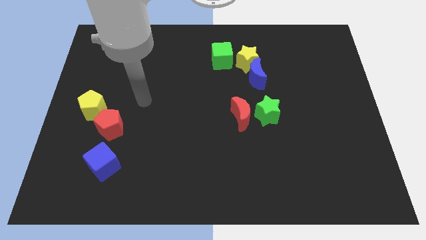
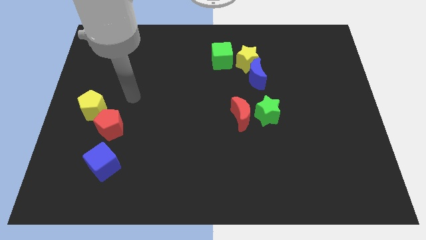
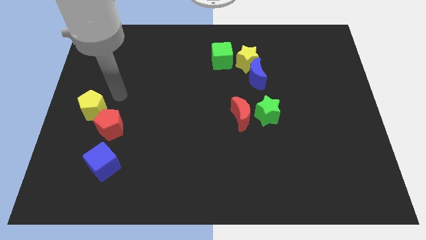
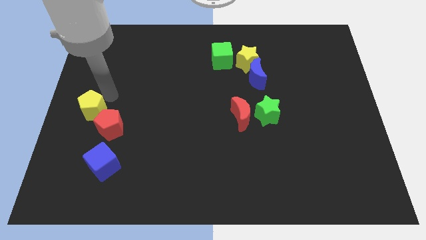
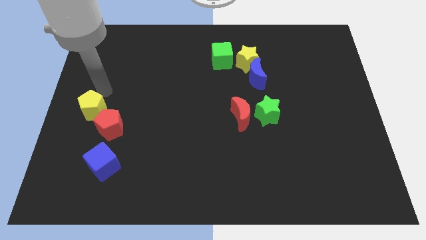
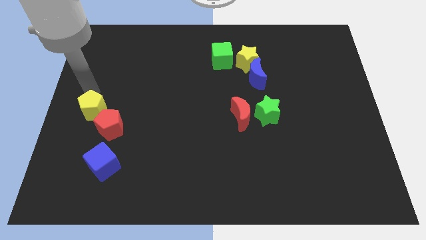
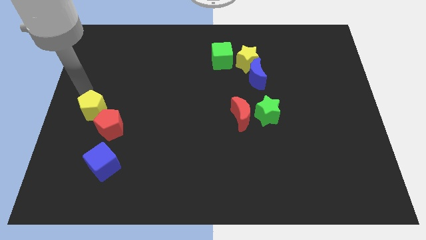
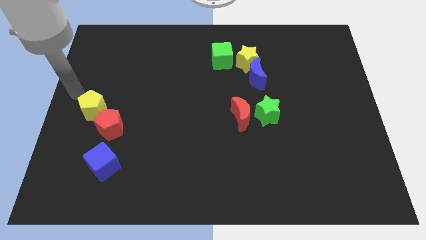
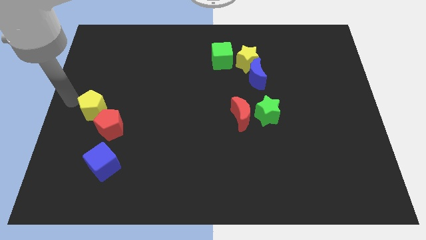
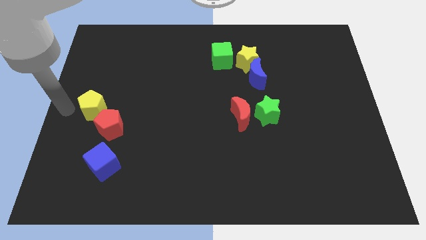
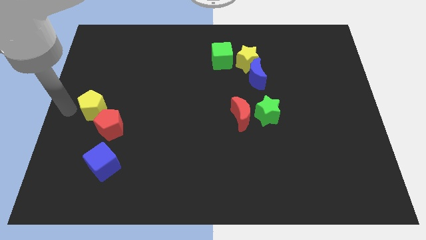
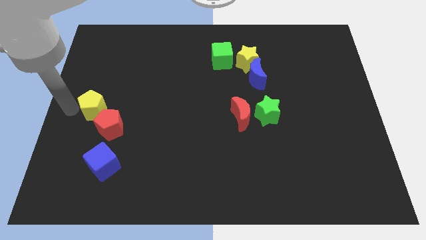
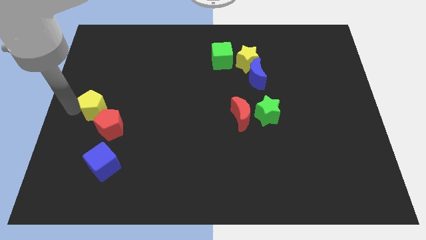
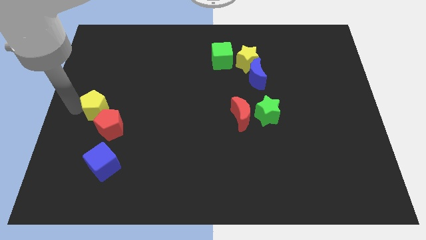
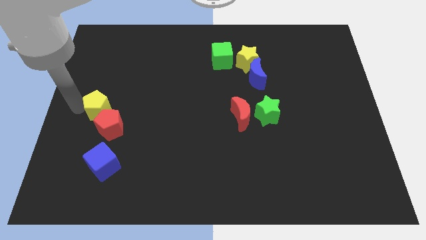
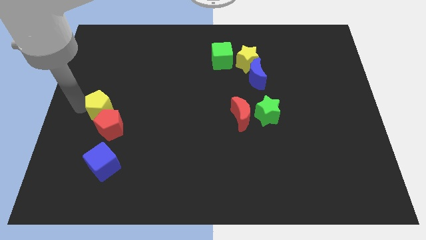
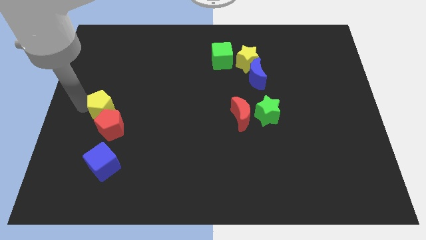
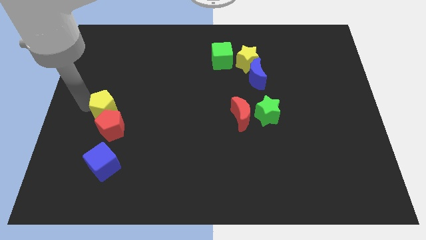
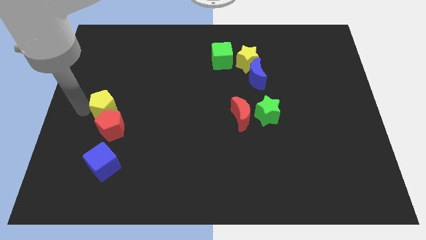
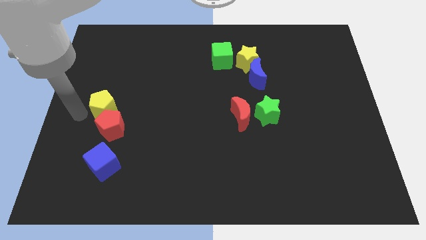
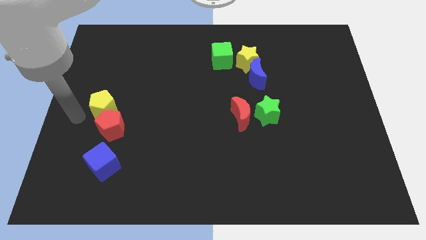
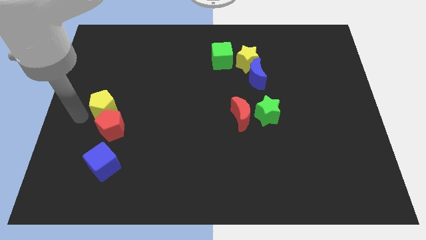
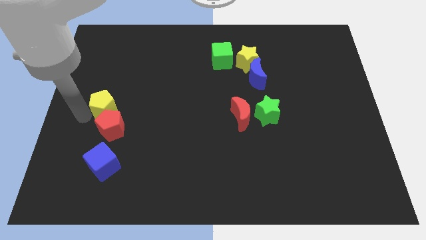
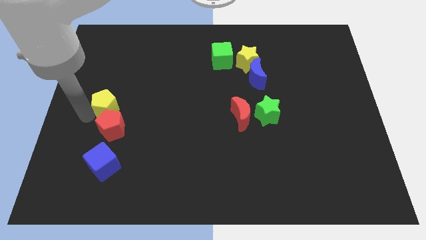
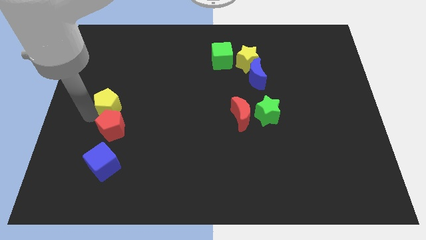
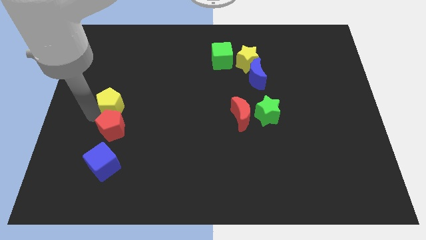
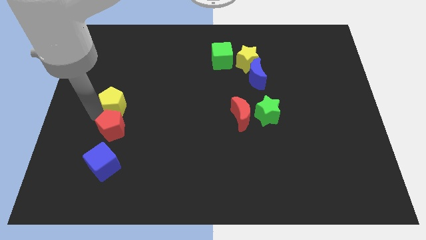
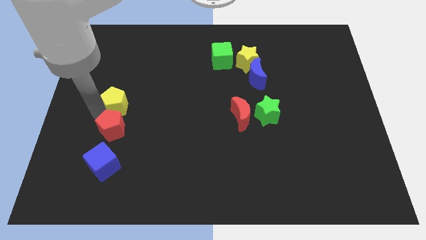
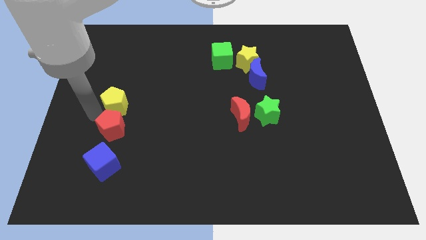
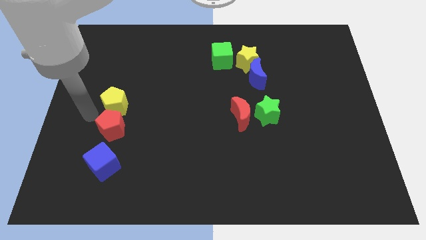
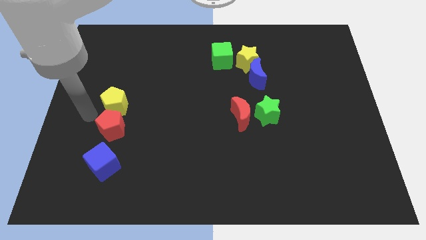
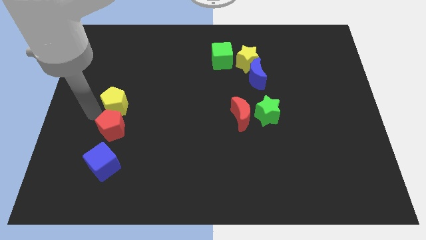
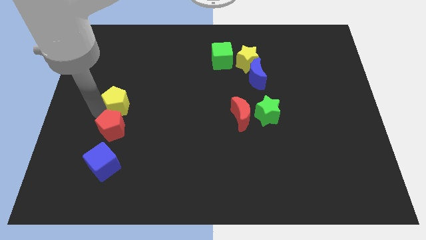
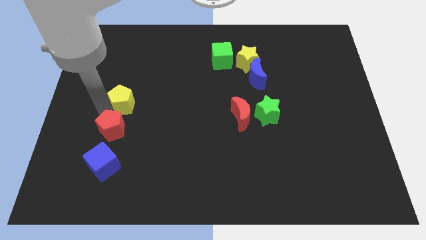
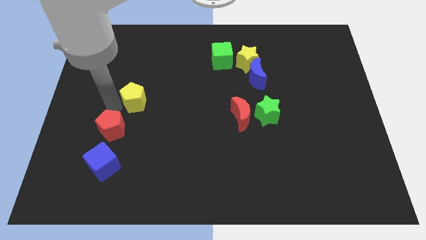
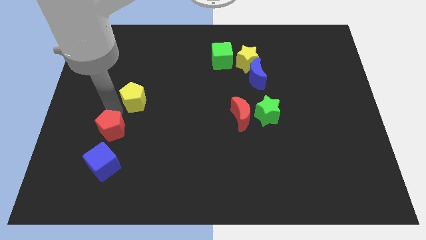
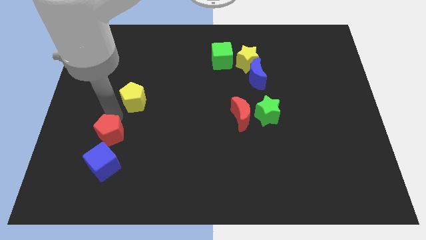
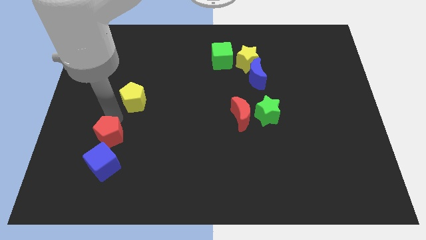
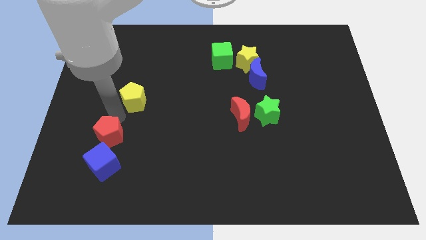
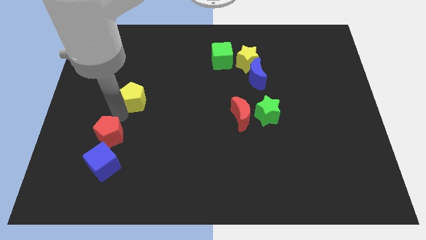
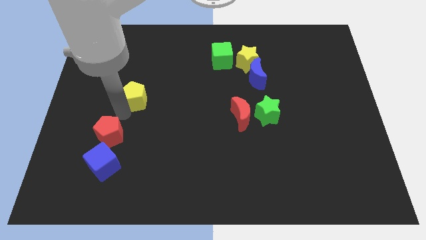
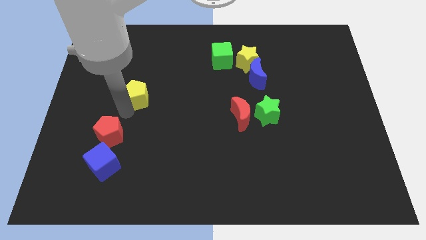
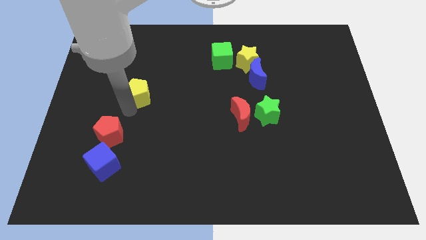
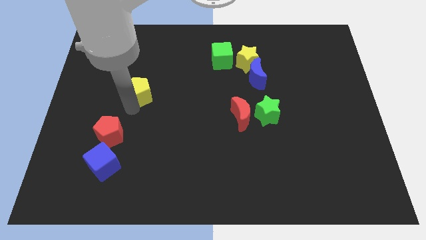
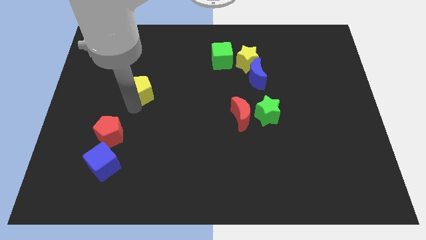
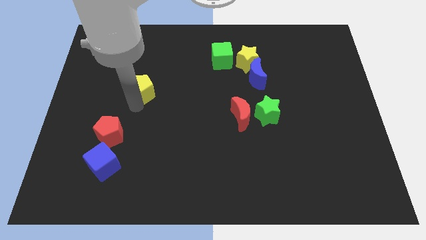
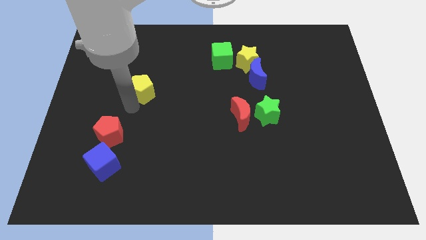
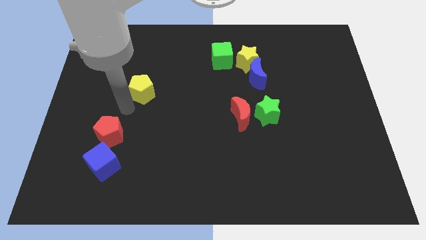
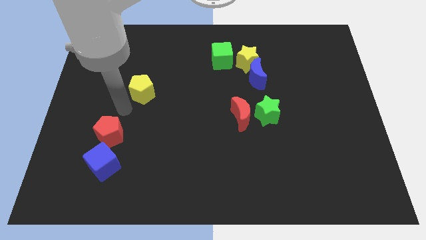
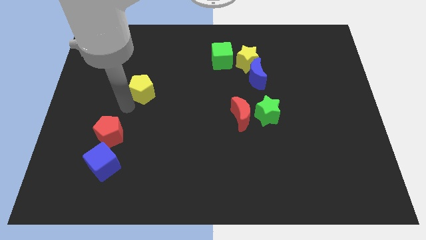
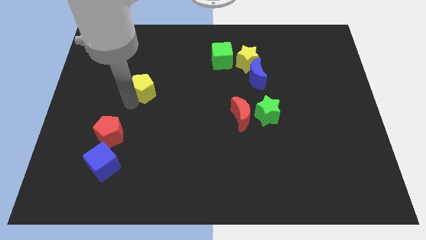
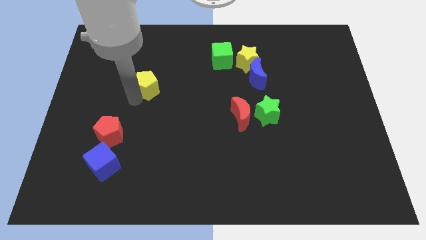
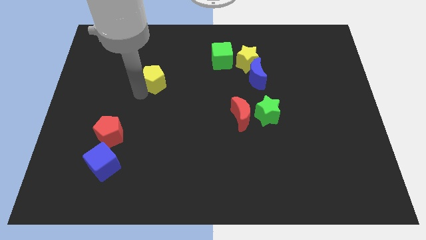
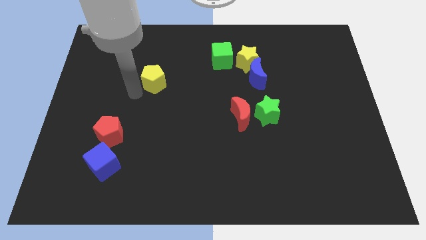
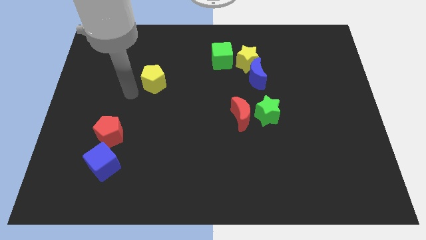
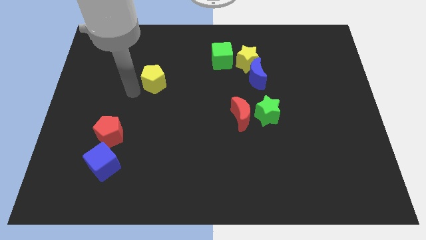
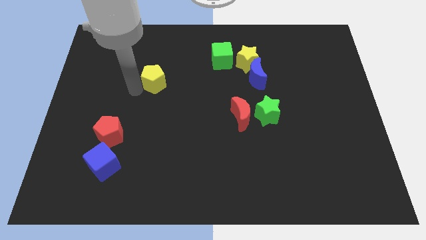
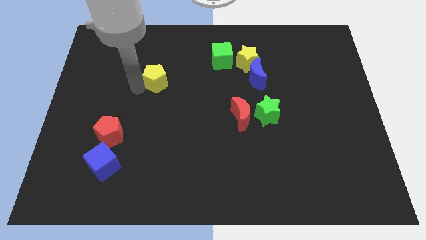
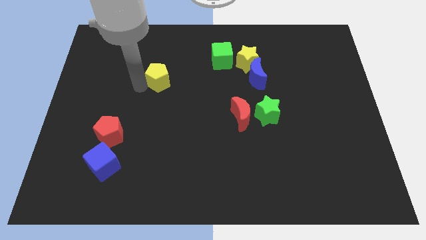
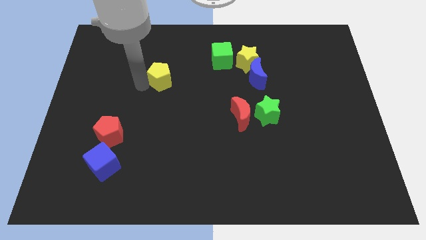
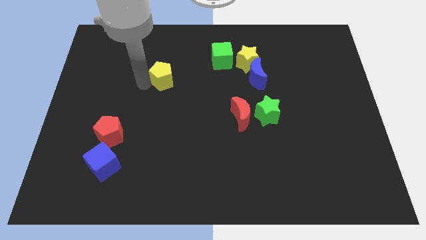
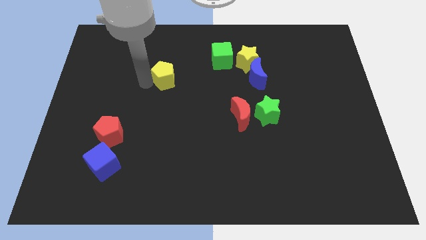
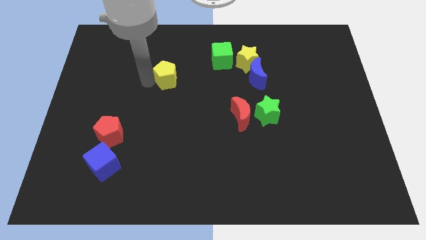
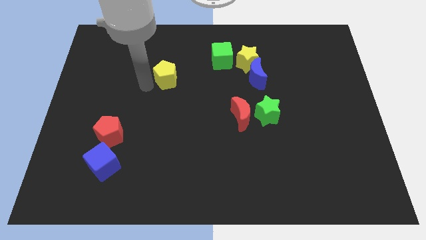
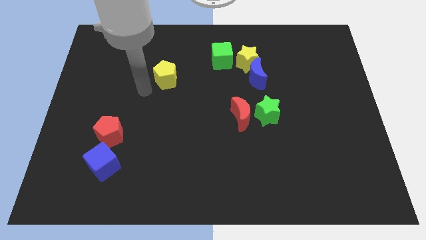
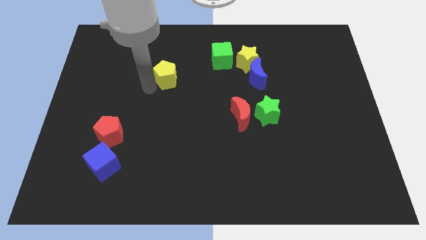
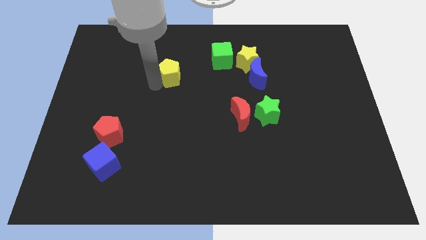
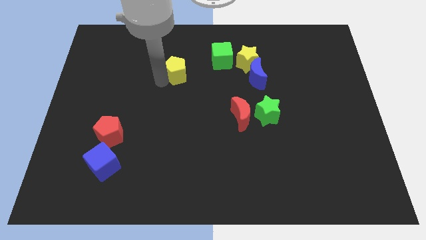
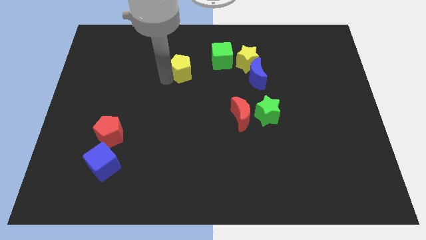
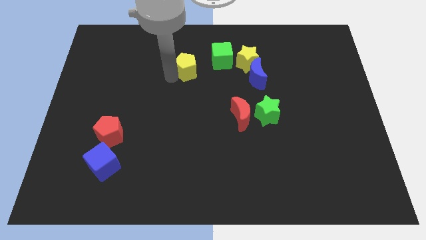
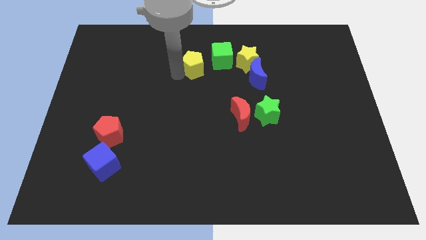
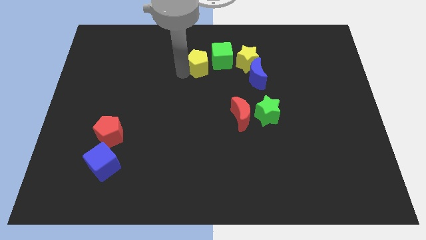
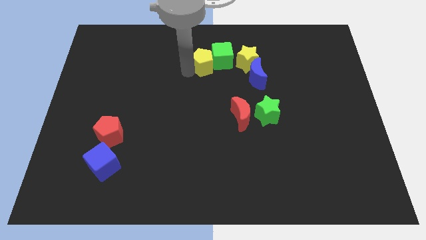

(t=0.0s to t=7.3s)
move the yellow pentagon to the green cube

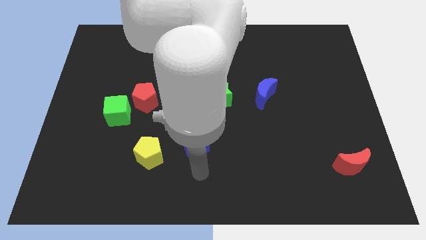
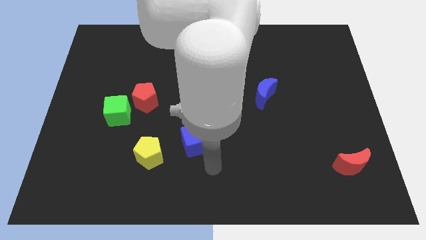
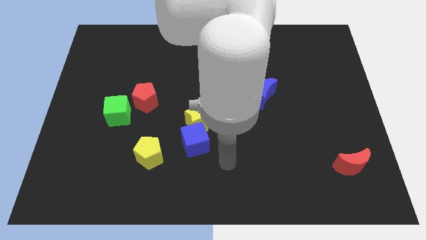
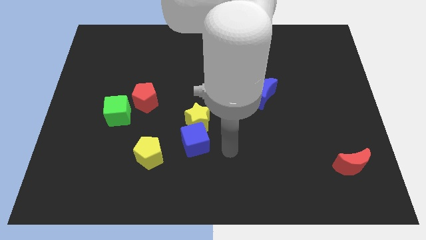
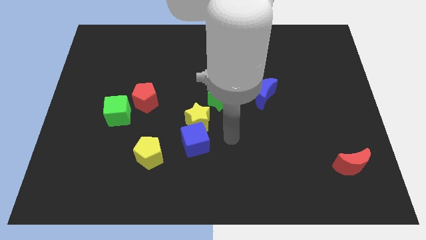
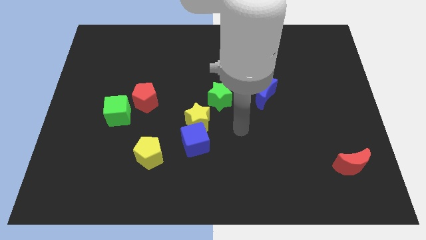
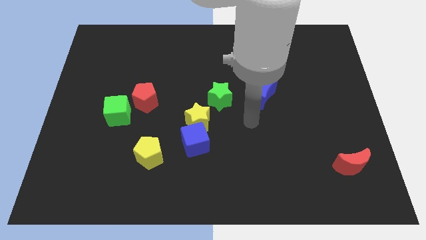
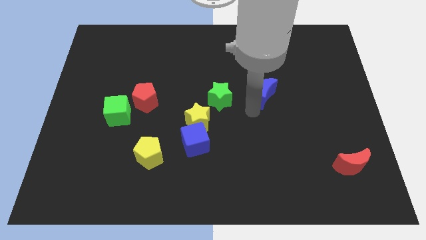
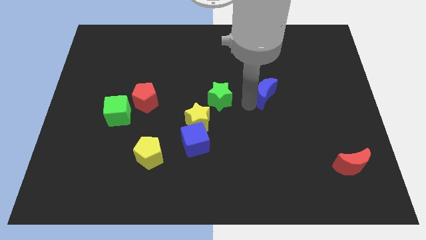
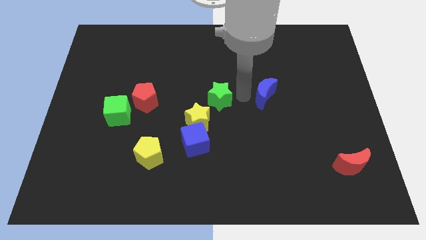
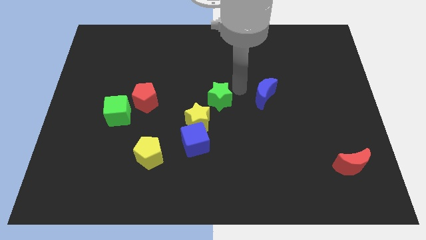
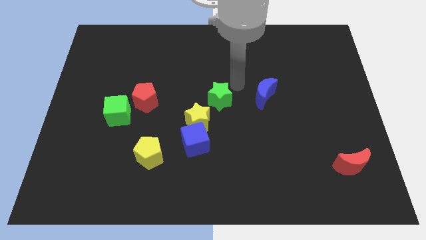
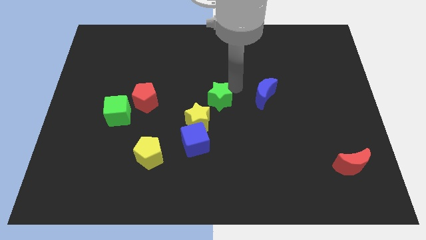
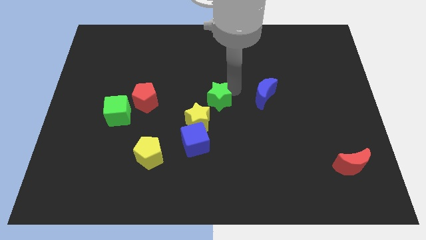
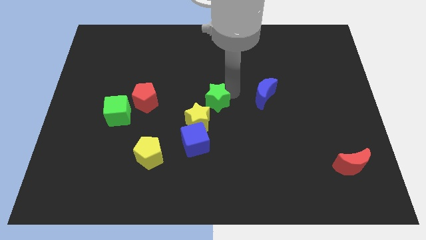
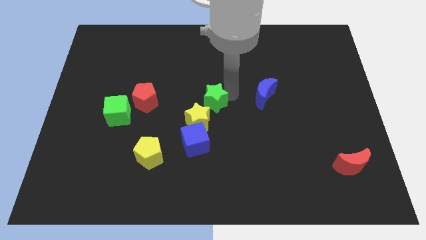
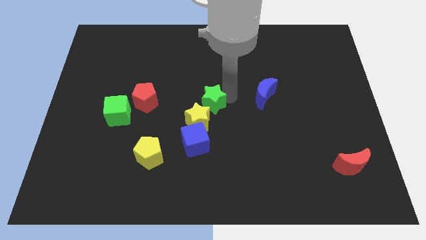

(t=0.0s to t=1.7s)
put the green star next to the yellow star
